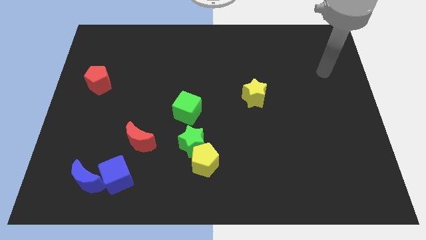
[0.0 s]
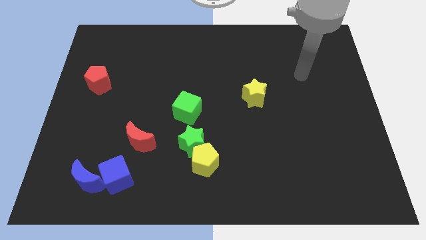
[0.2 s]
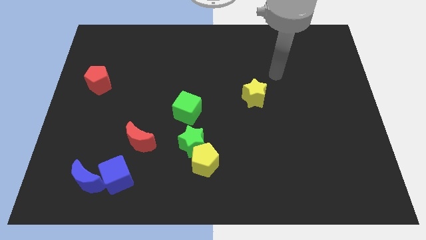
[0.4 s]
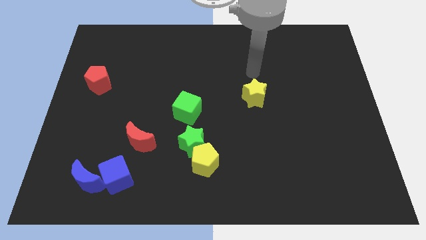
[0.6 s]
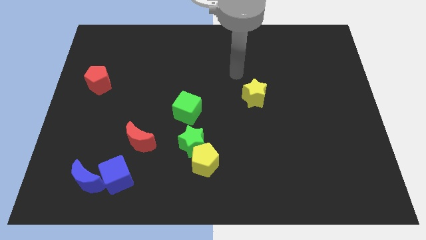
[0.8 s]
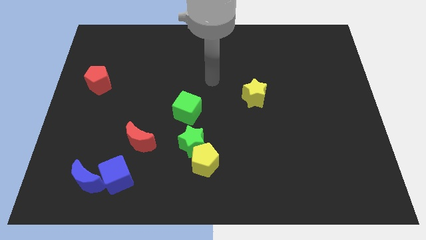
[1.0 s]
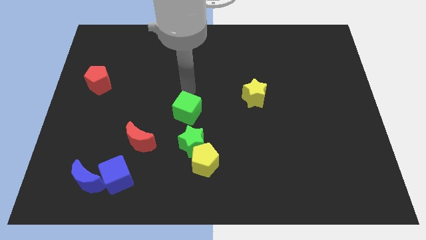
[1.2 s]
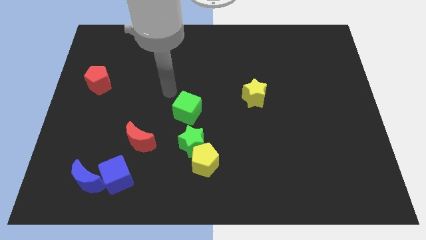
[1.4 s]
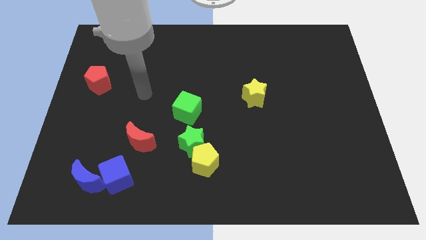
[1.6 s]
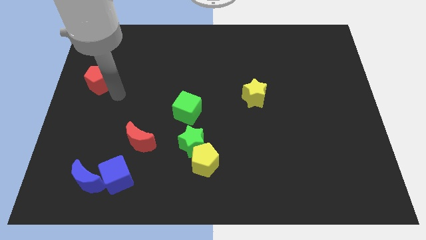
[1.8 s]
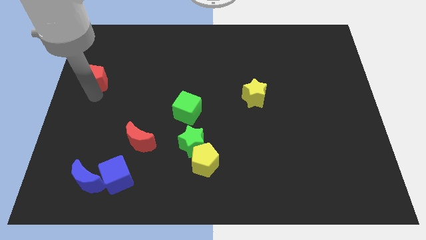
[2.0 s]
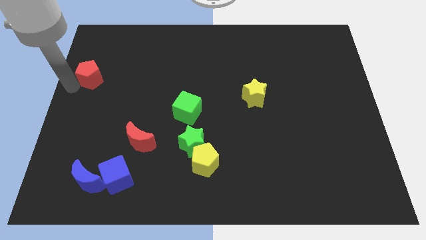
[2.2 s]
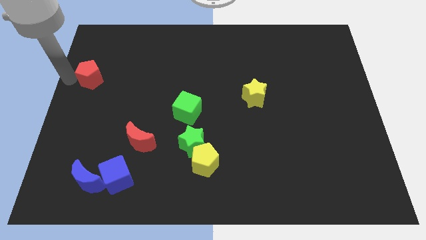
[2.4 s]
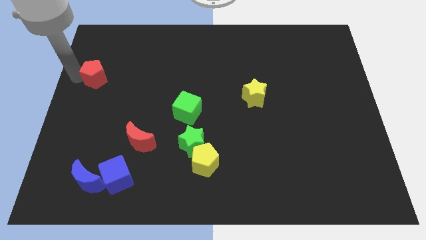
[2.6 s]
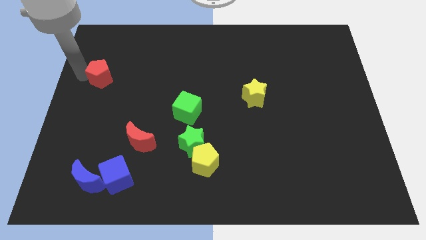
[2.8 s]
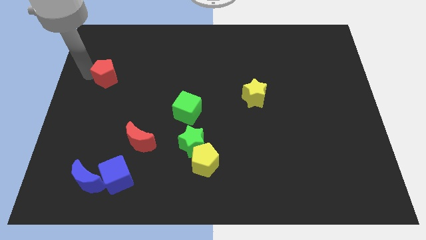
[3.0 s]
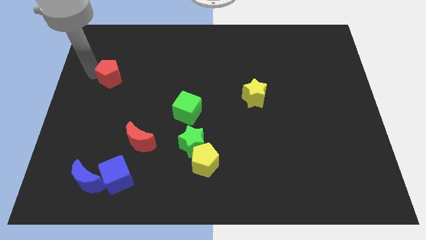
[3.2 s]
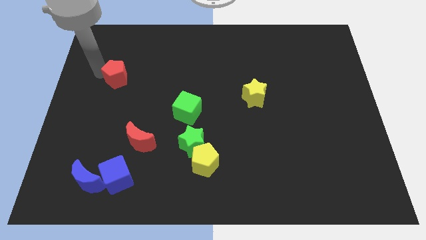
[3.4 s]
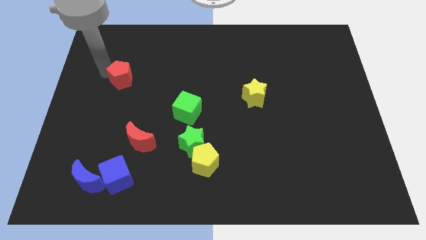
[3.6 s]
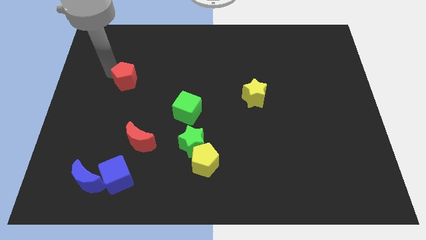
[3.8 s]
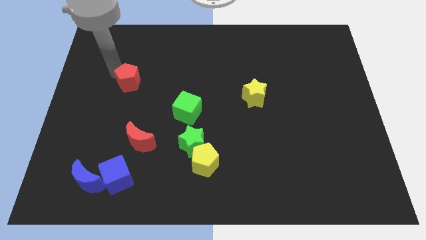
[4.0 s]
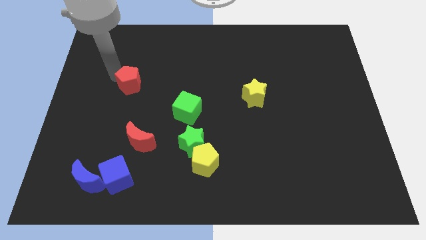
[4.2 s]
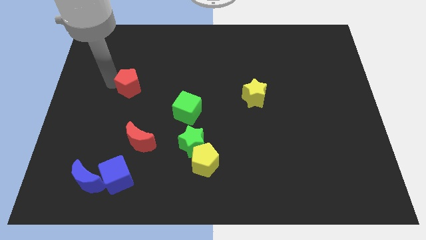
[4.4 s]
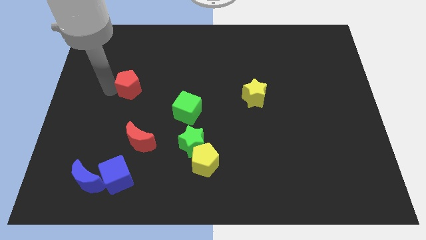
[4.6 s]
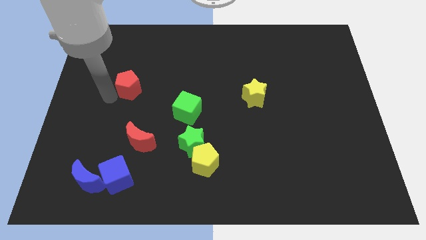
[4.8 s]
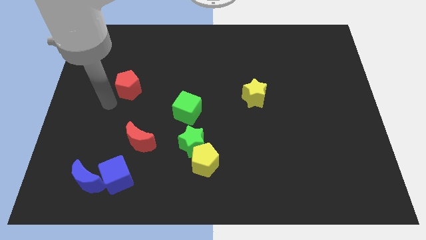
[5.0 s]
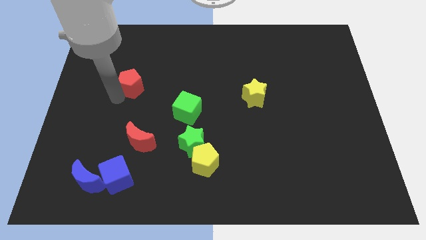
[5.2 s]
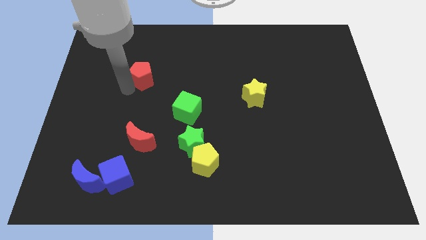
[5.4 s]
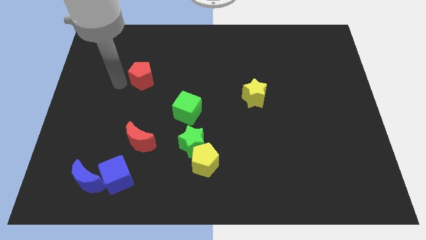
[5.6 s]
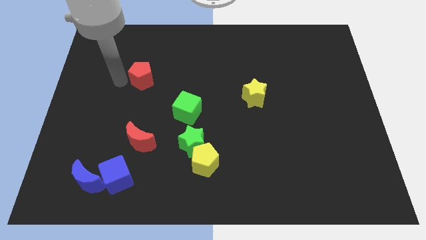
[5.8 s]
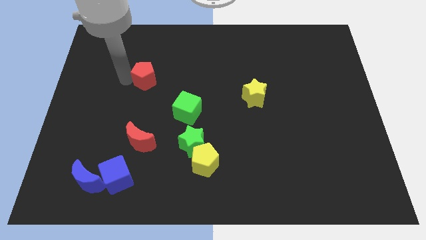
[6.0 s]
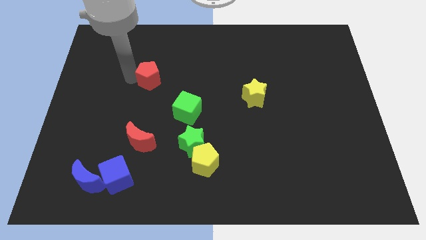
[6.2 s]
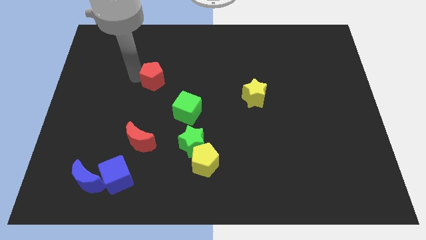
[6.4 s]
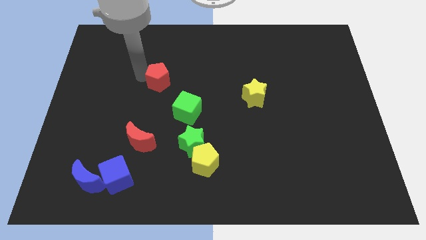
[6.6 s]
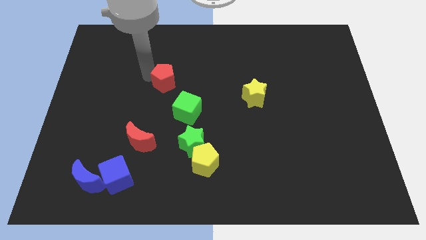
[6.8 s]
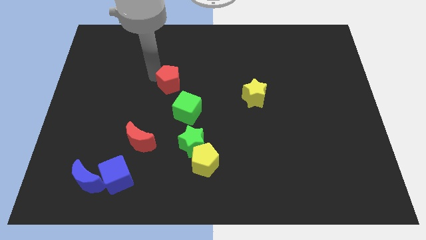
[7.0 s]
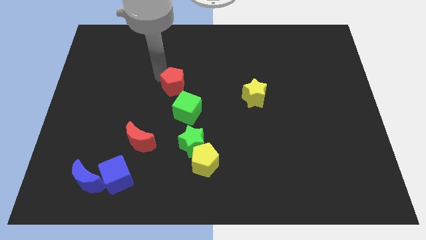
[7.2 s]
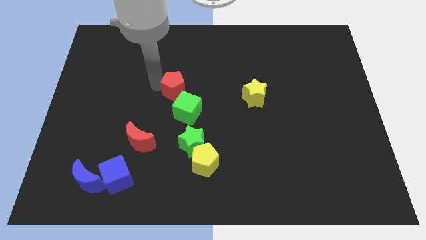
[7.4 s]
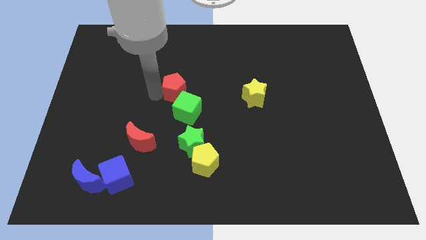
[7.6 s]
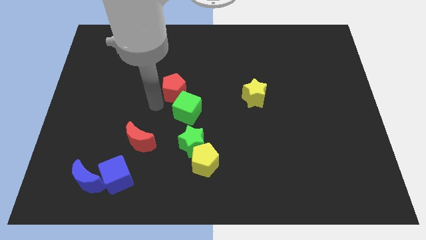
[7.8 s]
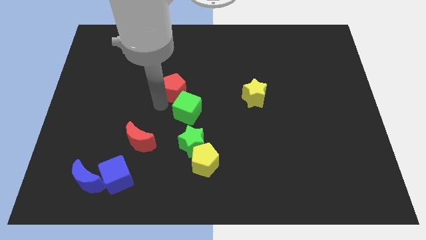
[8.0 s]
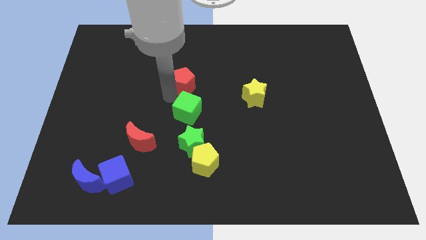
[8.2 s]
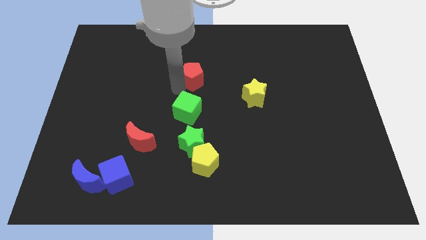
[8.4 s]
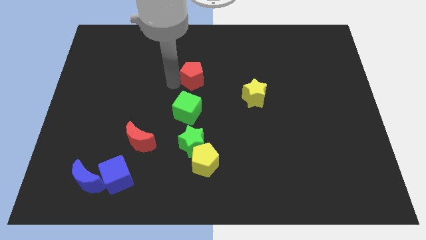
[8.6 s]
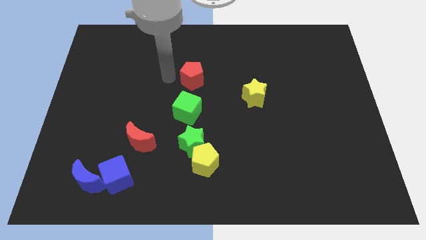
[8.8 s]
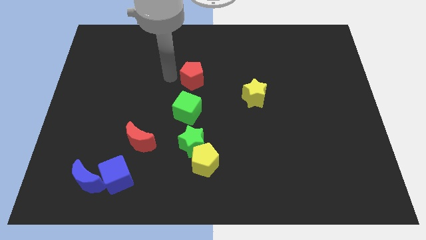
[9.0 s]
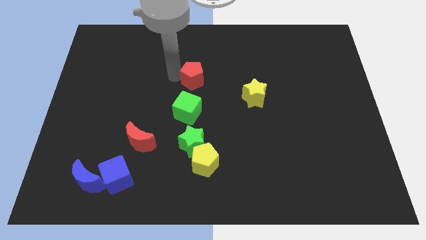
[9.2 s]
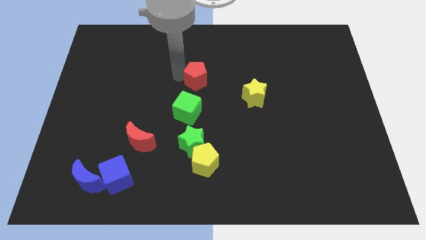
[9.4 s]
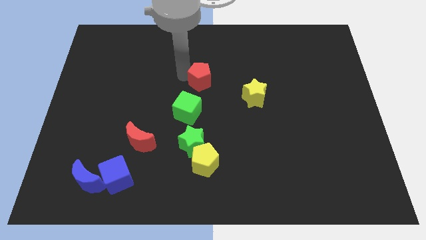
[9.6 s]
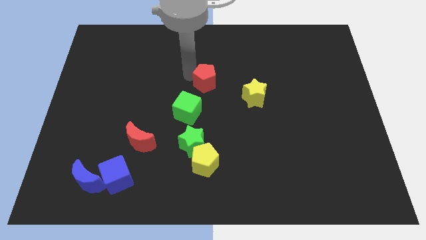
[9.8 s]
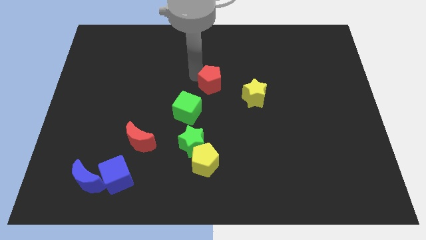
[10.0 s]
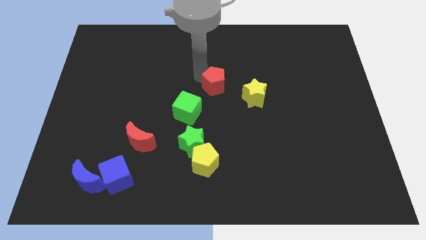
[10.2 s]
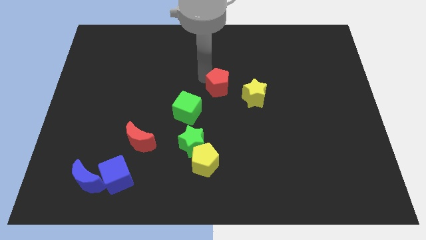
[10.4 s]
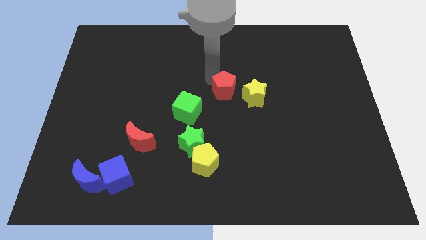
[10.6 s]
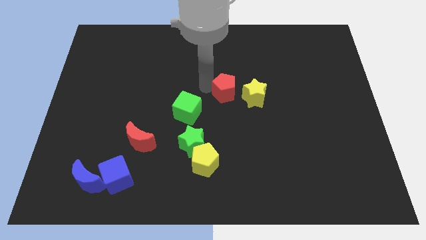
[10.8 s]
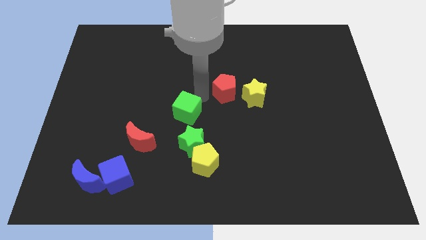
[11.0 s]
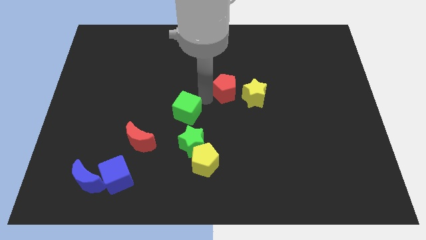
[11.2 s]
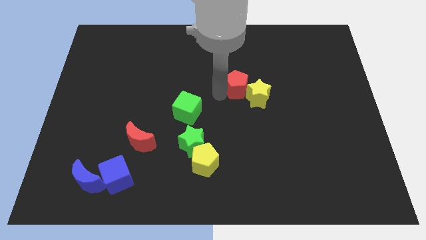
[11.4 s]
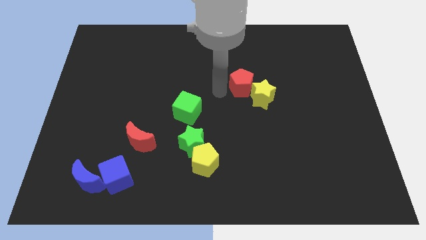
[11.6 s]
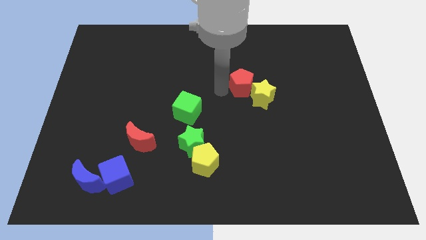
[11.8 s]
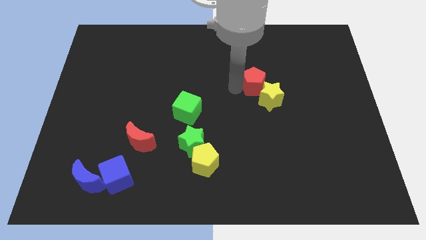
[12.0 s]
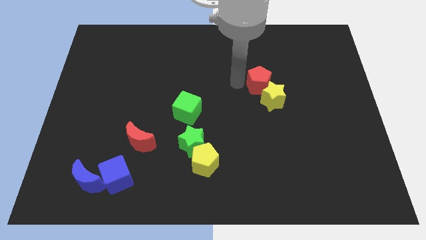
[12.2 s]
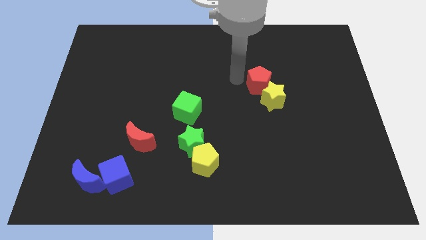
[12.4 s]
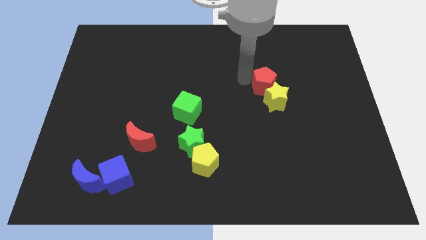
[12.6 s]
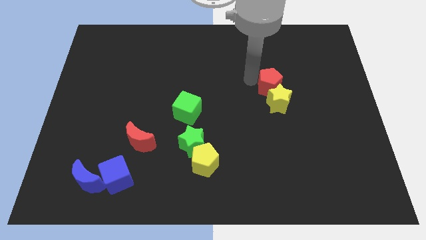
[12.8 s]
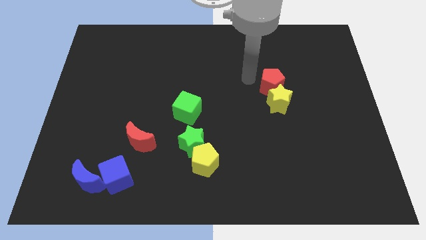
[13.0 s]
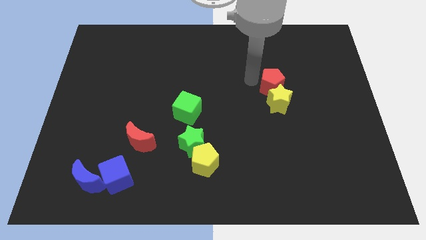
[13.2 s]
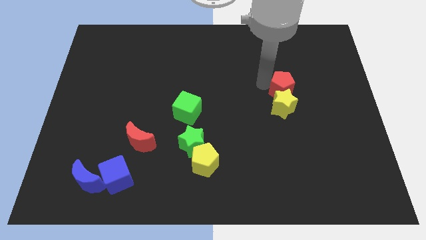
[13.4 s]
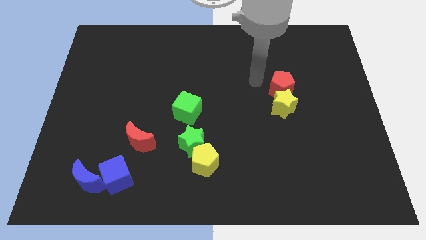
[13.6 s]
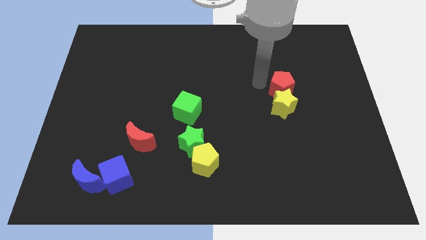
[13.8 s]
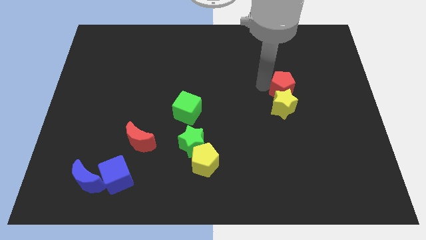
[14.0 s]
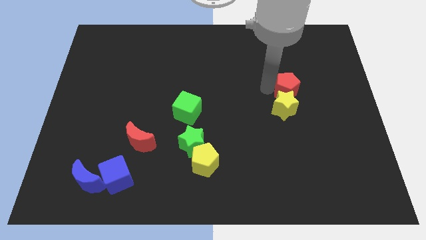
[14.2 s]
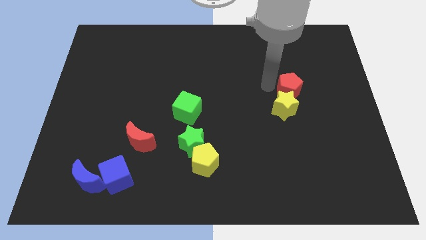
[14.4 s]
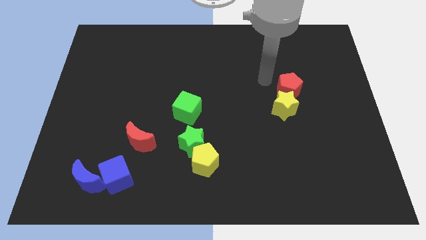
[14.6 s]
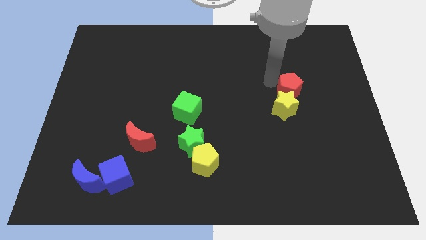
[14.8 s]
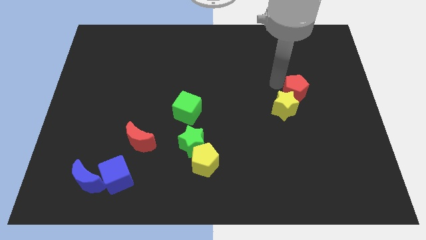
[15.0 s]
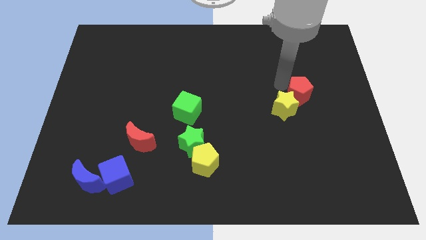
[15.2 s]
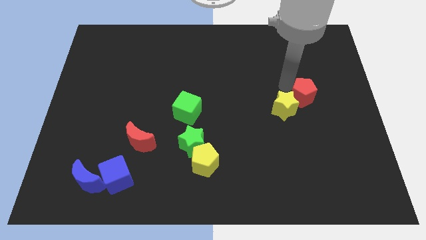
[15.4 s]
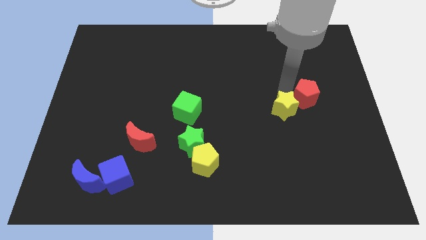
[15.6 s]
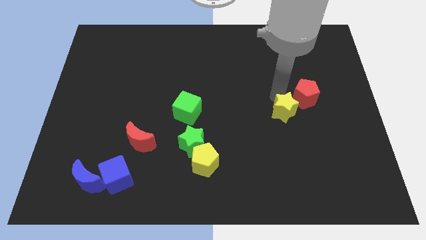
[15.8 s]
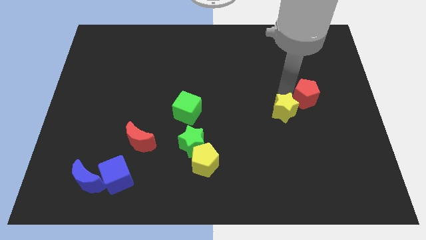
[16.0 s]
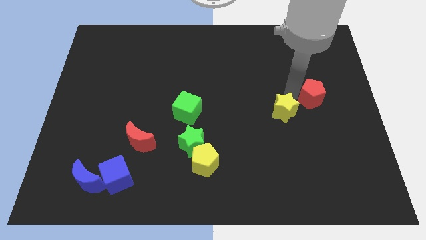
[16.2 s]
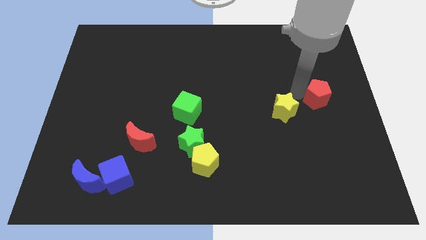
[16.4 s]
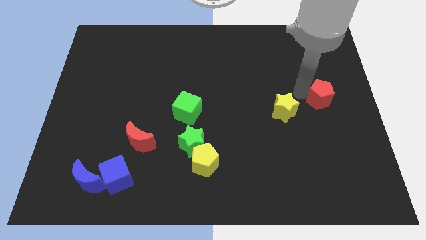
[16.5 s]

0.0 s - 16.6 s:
push the red pentagon to the right side
